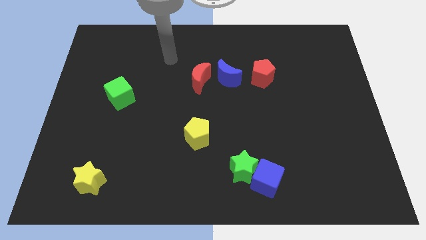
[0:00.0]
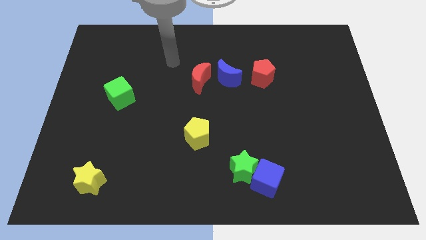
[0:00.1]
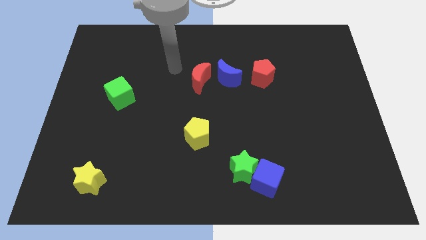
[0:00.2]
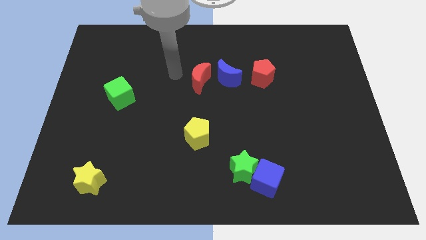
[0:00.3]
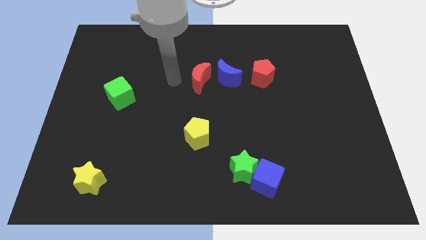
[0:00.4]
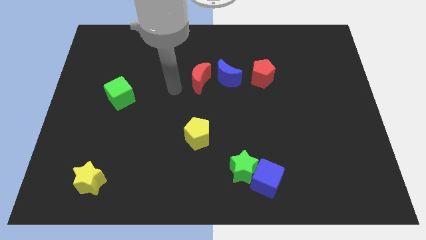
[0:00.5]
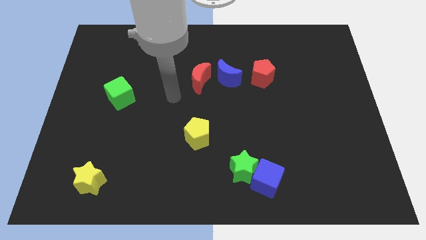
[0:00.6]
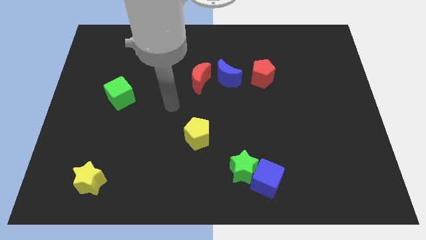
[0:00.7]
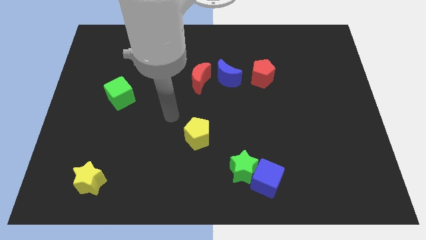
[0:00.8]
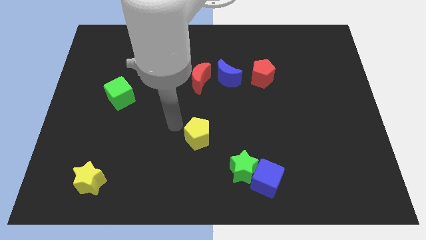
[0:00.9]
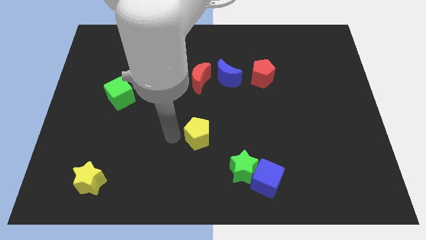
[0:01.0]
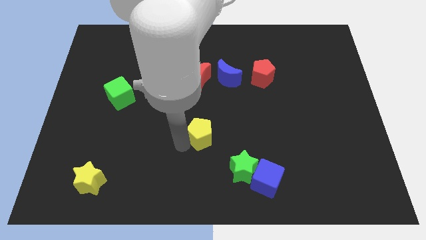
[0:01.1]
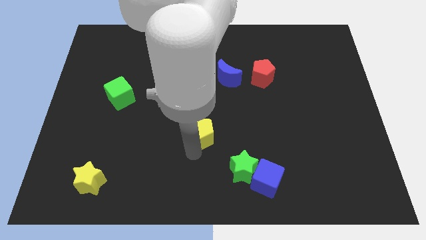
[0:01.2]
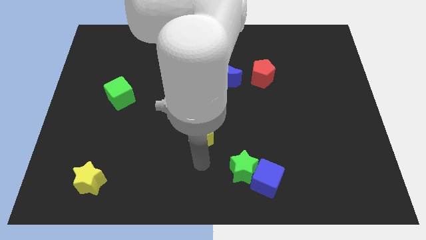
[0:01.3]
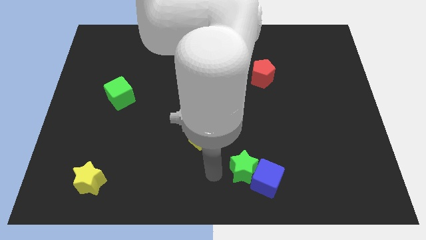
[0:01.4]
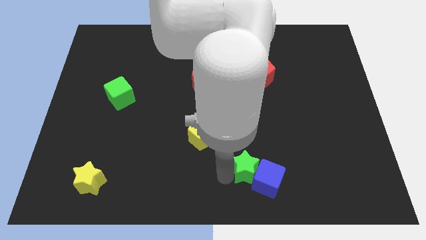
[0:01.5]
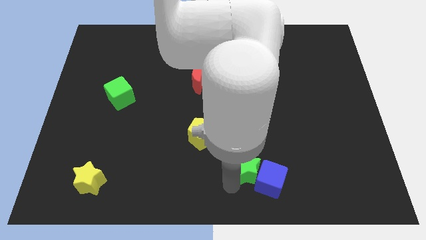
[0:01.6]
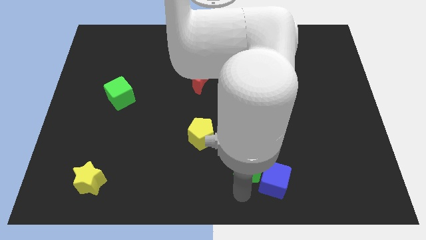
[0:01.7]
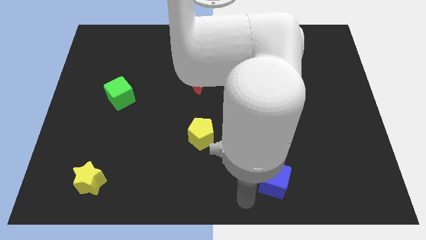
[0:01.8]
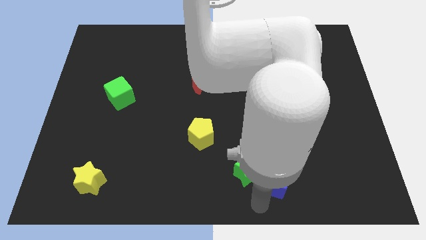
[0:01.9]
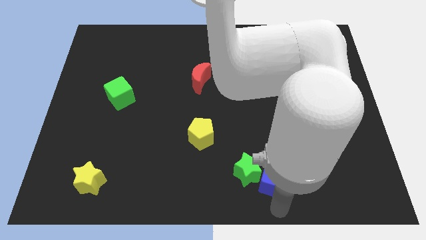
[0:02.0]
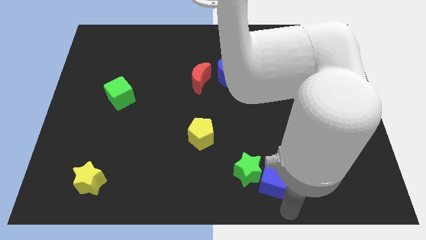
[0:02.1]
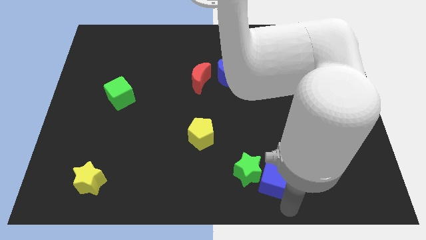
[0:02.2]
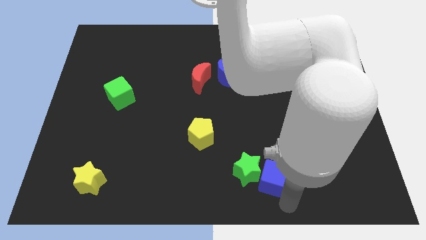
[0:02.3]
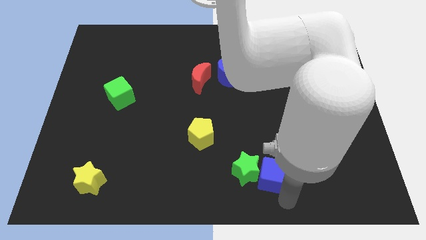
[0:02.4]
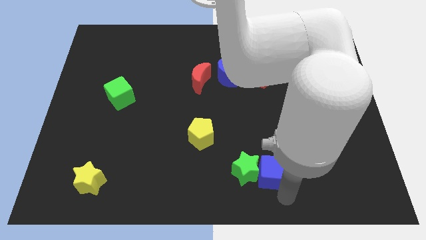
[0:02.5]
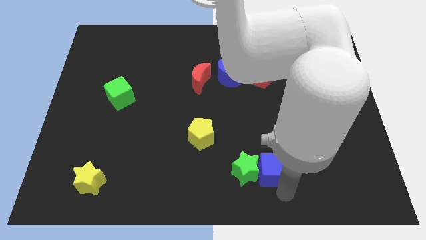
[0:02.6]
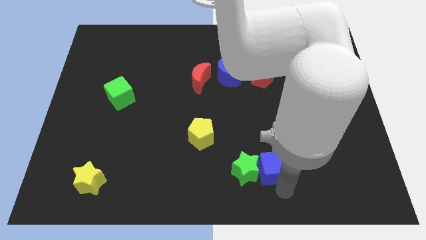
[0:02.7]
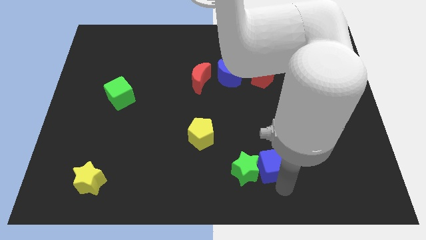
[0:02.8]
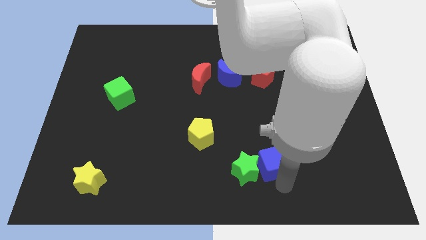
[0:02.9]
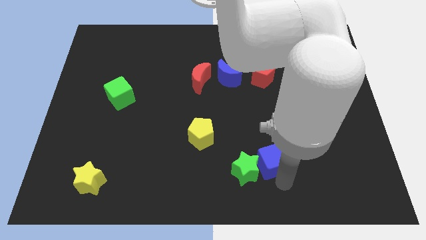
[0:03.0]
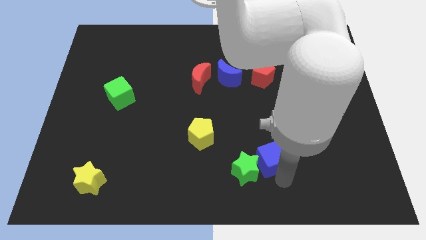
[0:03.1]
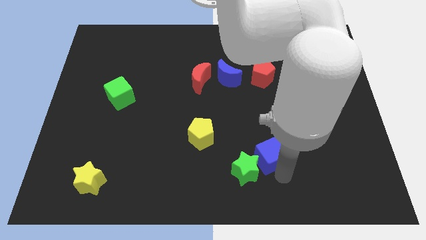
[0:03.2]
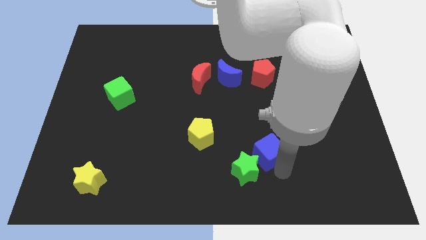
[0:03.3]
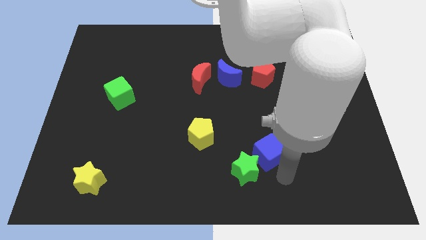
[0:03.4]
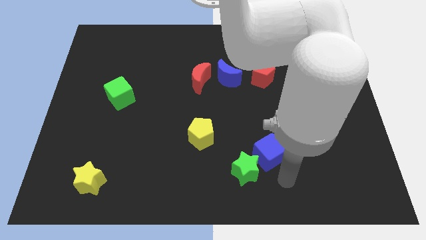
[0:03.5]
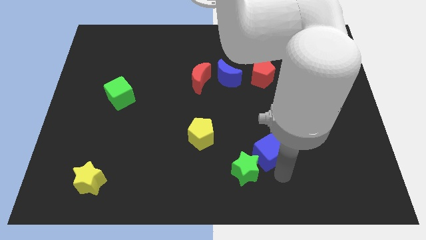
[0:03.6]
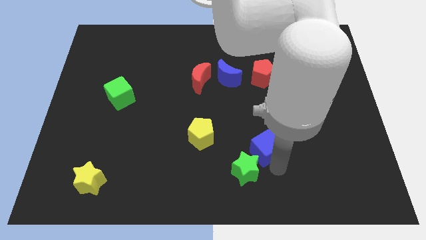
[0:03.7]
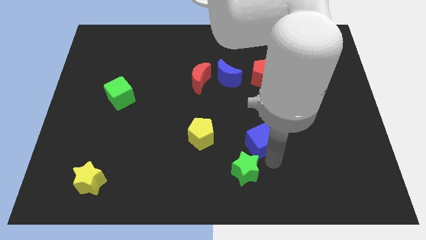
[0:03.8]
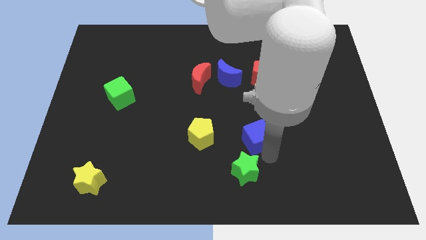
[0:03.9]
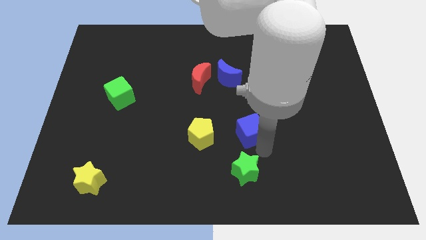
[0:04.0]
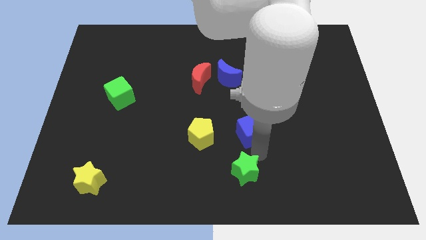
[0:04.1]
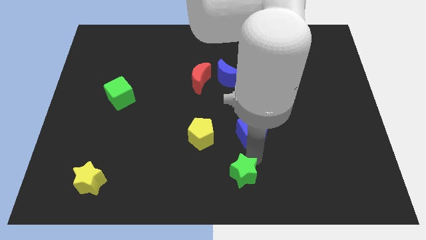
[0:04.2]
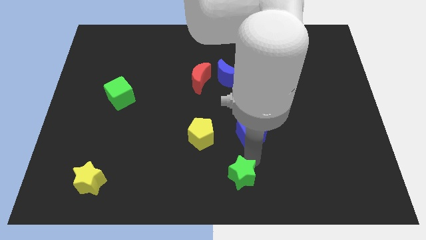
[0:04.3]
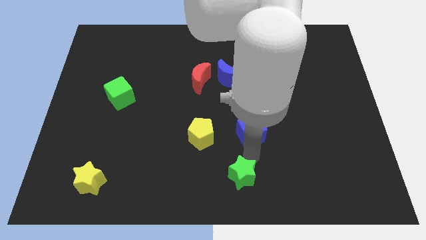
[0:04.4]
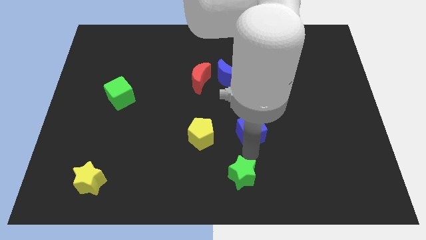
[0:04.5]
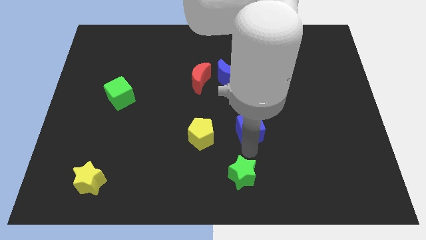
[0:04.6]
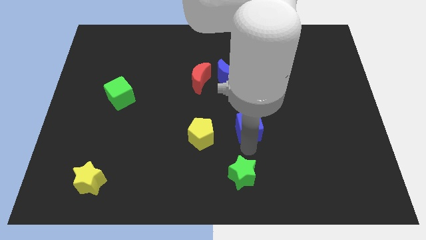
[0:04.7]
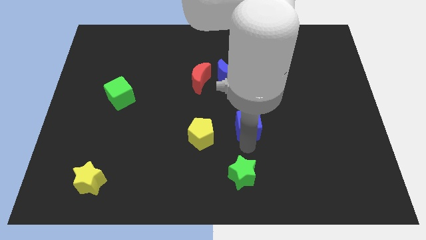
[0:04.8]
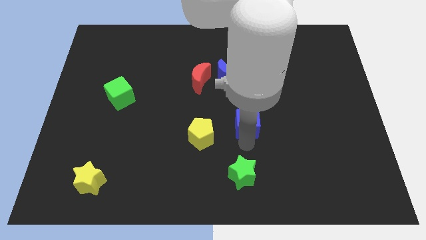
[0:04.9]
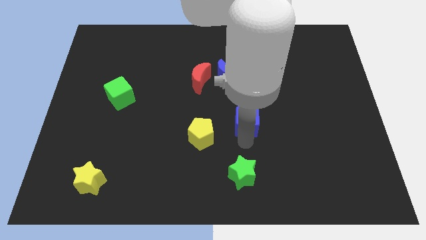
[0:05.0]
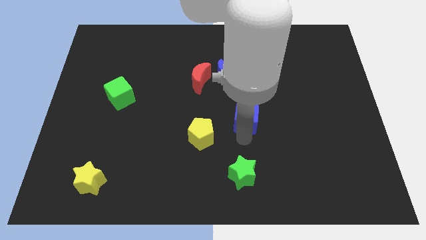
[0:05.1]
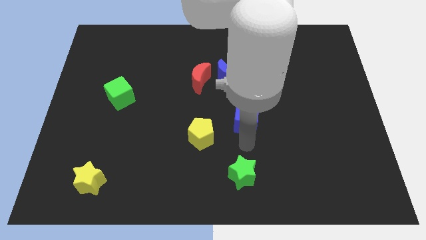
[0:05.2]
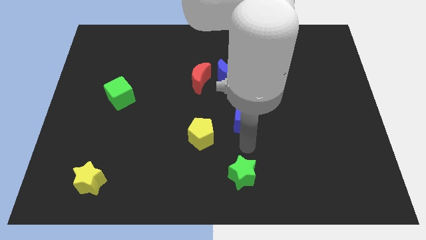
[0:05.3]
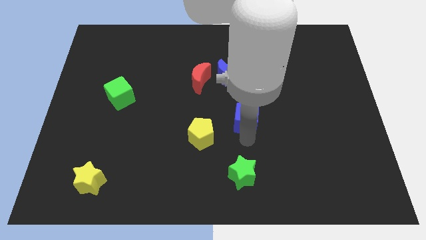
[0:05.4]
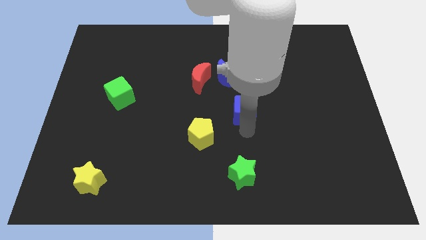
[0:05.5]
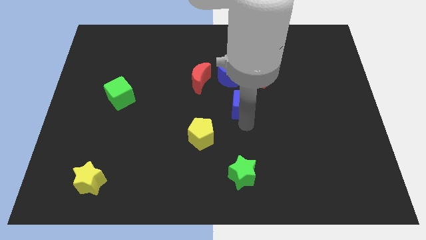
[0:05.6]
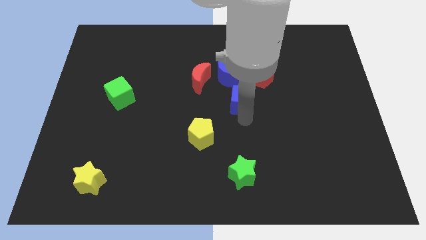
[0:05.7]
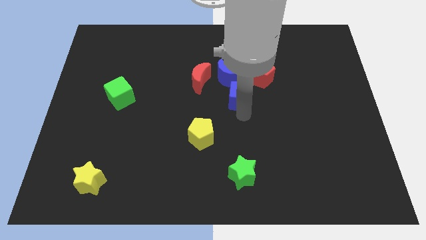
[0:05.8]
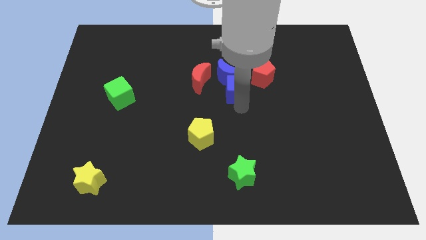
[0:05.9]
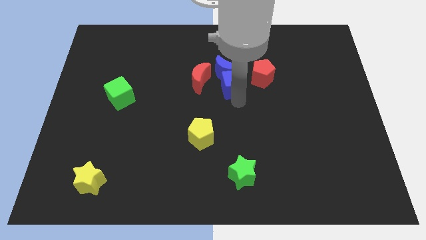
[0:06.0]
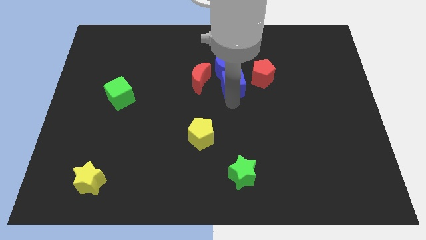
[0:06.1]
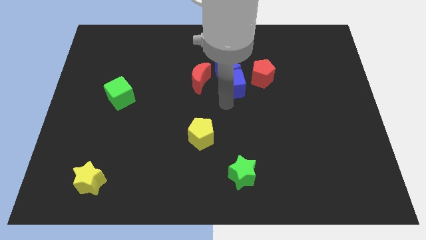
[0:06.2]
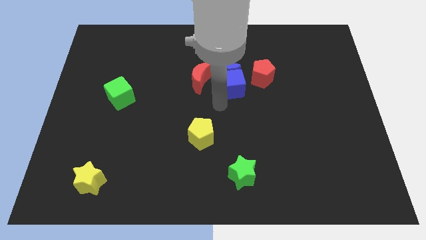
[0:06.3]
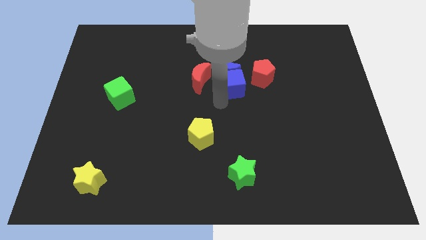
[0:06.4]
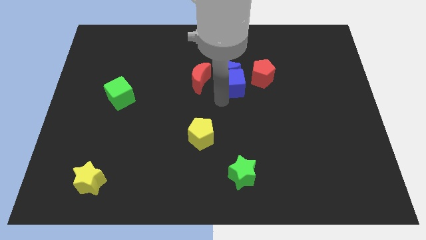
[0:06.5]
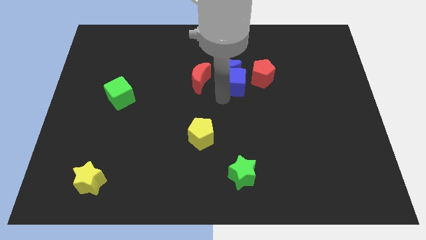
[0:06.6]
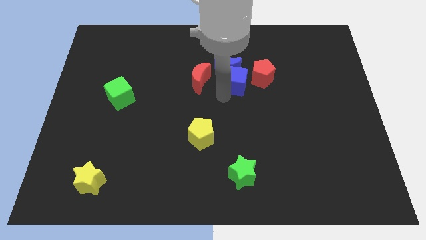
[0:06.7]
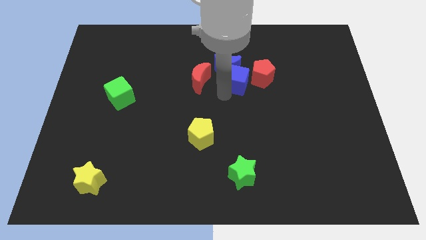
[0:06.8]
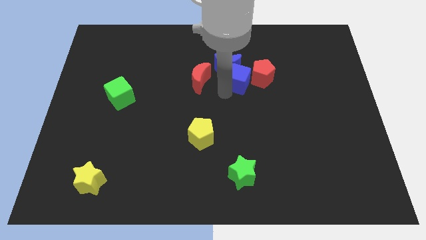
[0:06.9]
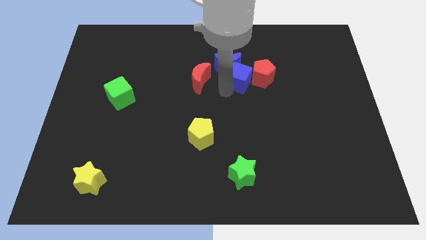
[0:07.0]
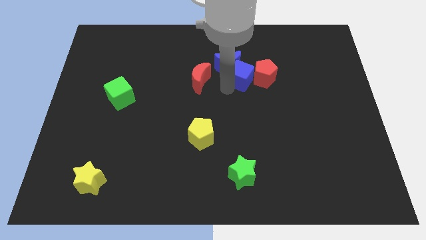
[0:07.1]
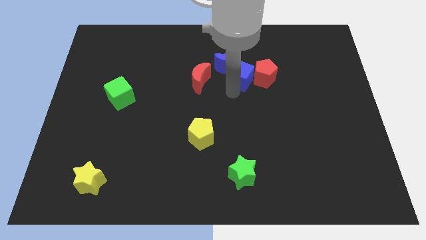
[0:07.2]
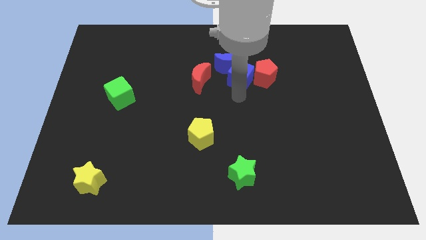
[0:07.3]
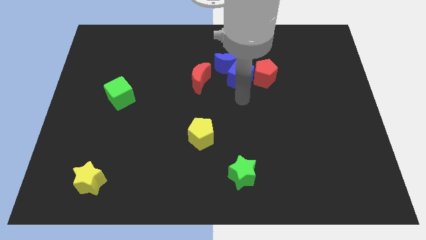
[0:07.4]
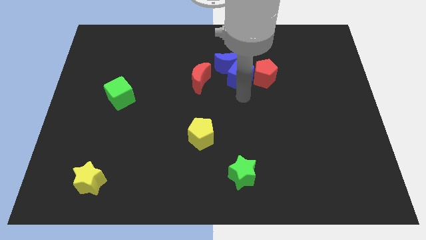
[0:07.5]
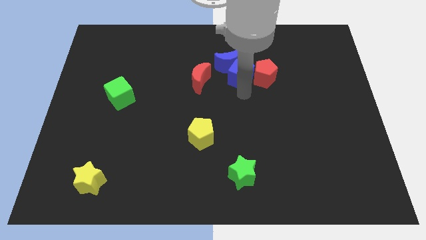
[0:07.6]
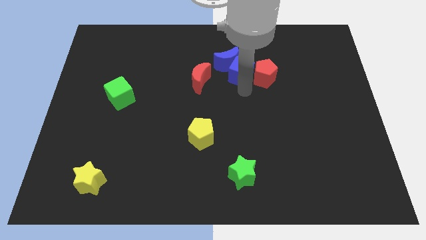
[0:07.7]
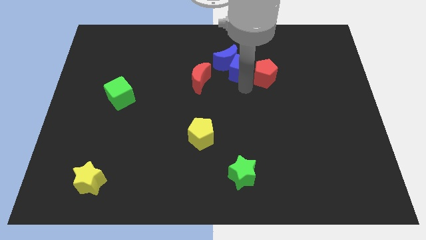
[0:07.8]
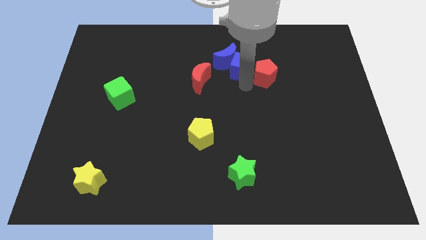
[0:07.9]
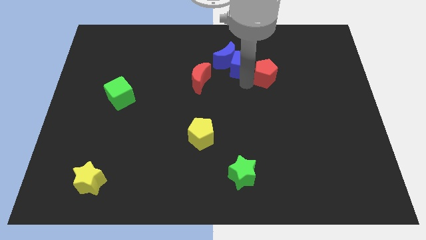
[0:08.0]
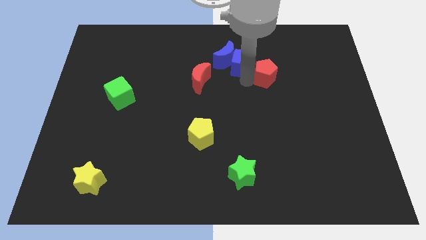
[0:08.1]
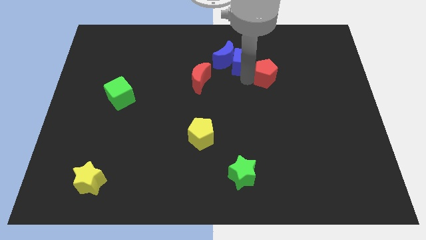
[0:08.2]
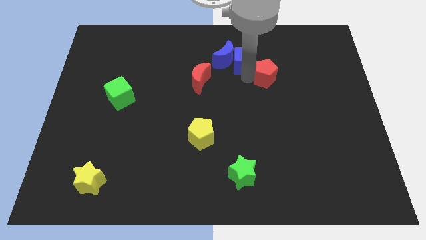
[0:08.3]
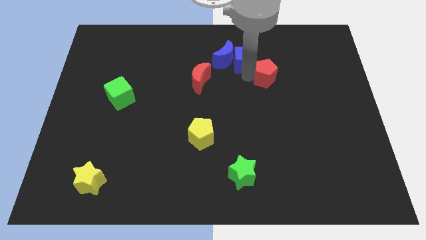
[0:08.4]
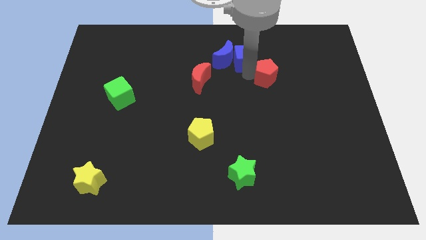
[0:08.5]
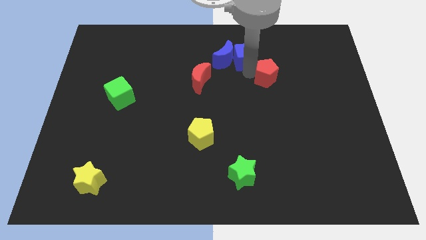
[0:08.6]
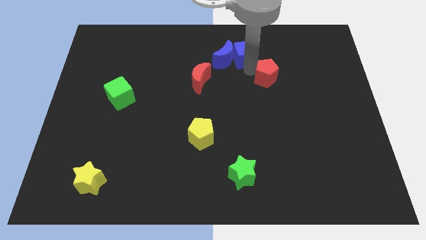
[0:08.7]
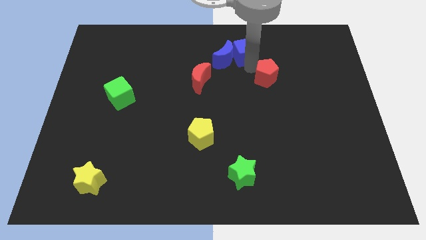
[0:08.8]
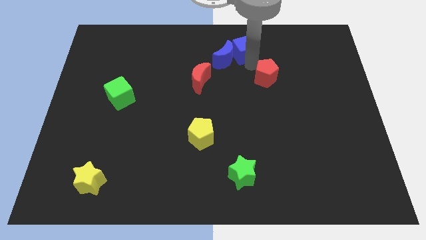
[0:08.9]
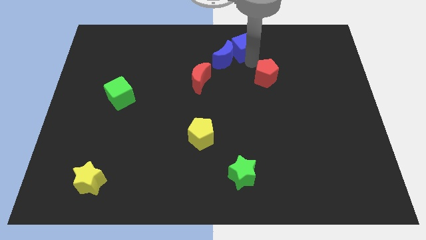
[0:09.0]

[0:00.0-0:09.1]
move the blue cube to the top side
